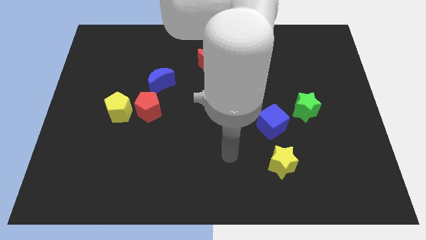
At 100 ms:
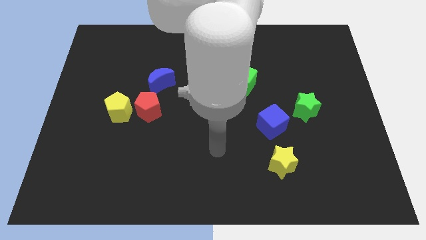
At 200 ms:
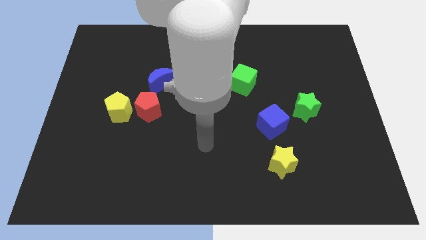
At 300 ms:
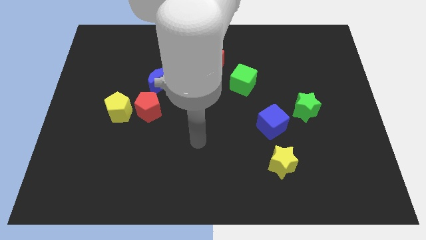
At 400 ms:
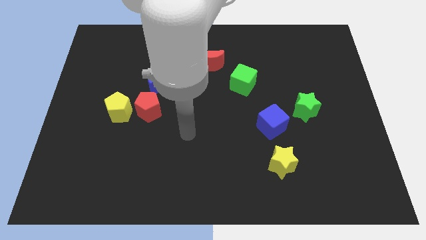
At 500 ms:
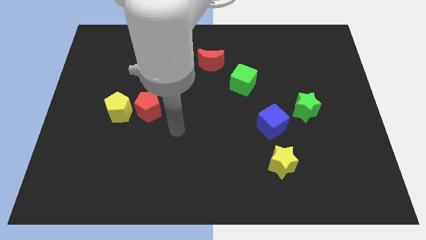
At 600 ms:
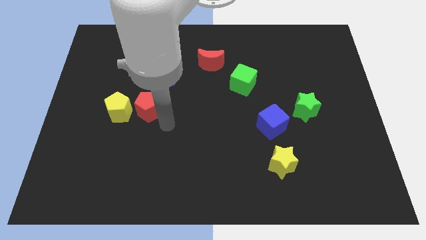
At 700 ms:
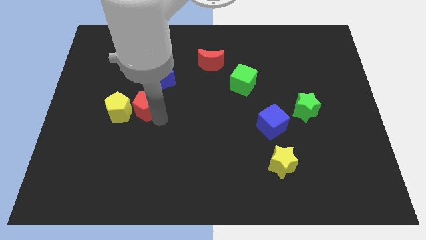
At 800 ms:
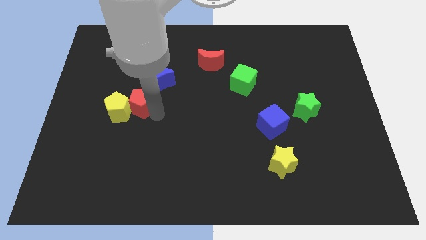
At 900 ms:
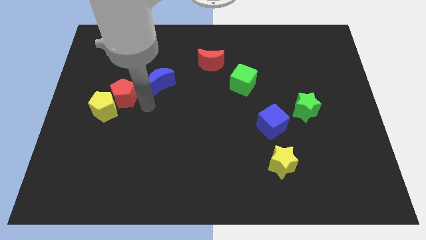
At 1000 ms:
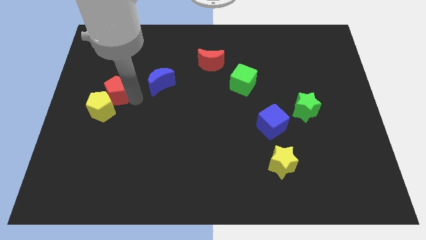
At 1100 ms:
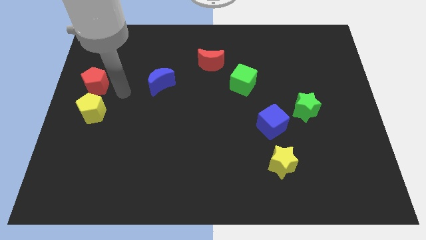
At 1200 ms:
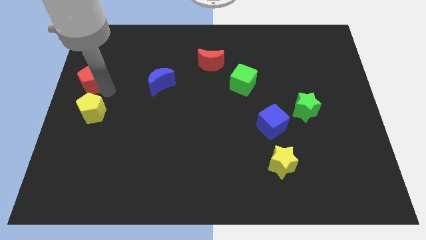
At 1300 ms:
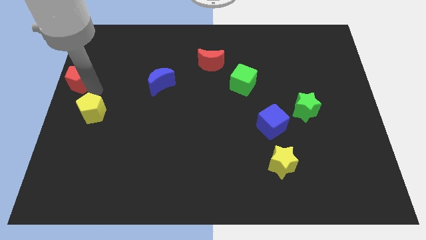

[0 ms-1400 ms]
separate the yellow pentagon from the red pentagon

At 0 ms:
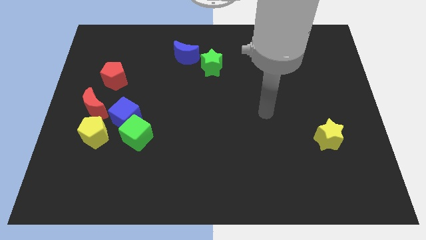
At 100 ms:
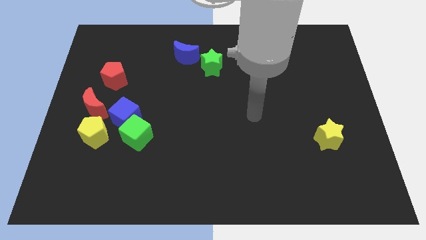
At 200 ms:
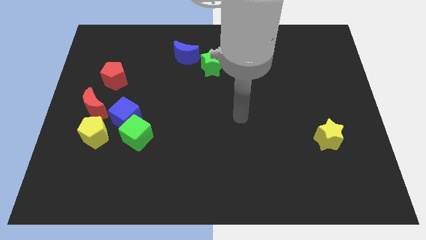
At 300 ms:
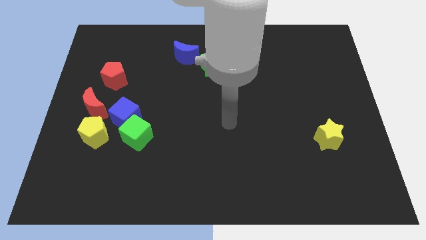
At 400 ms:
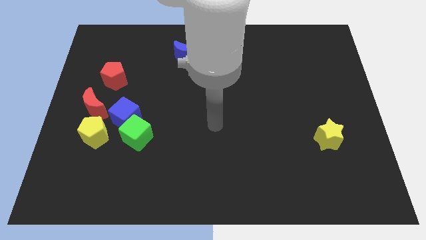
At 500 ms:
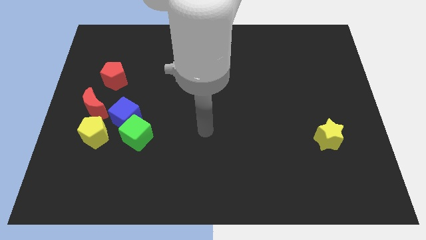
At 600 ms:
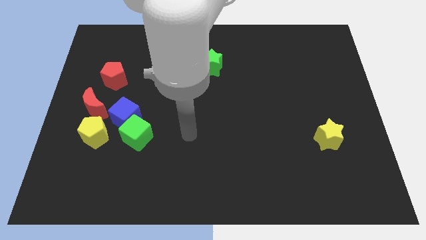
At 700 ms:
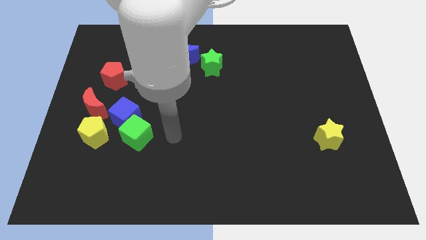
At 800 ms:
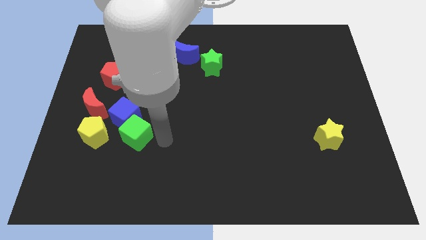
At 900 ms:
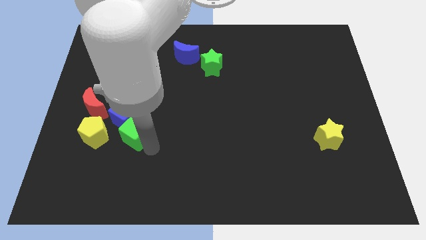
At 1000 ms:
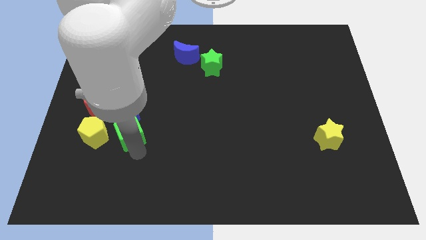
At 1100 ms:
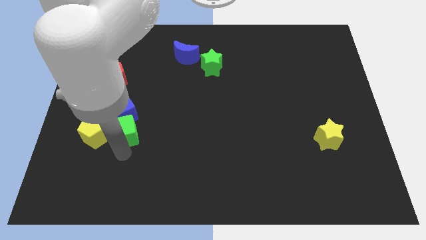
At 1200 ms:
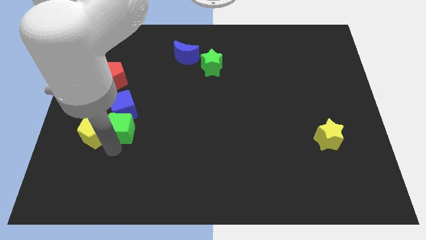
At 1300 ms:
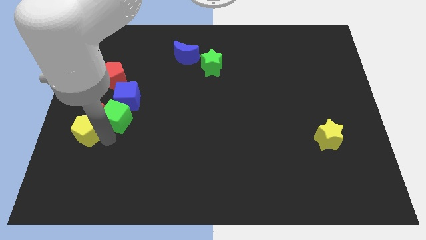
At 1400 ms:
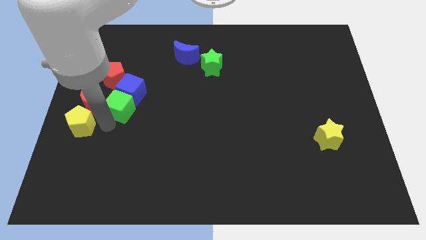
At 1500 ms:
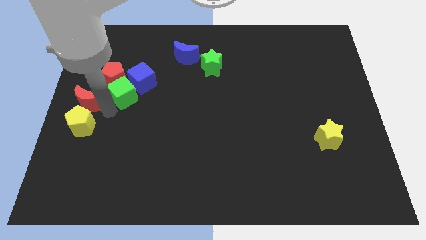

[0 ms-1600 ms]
separate the blue cube from the clump

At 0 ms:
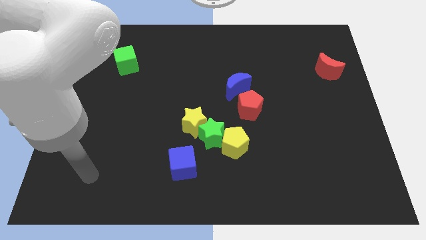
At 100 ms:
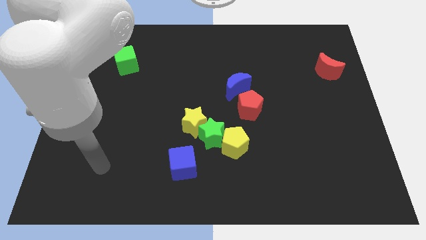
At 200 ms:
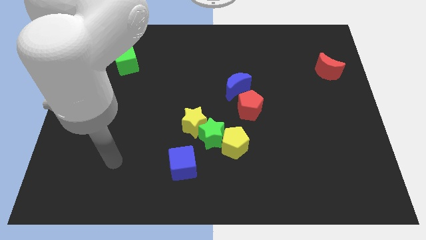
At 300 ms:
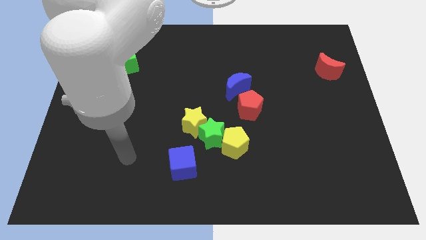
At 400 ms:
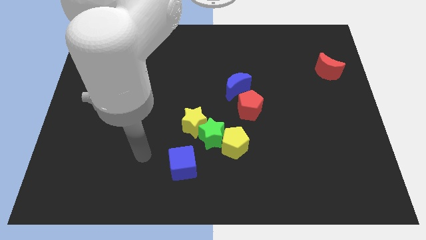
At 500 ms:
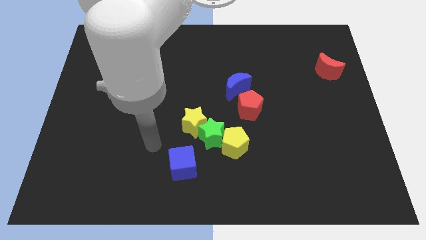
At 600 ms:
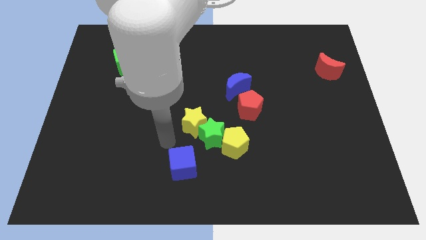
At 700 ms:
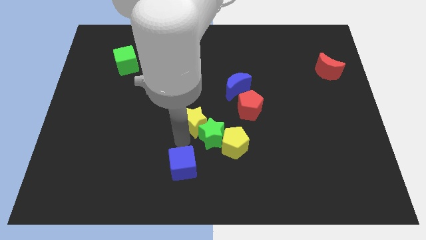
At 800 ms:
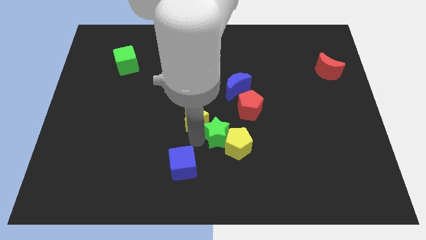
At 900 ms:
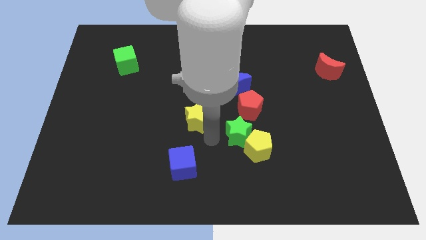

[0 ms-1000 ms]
move the yellow star away from the green star

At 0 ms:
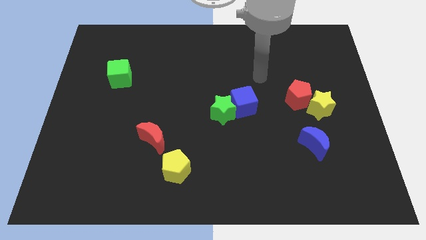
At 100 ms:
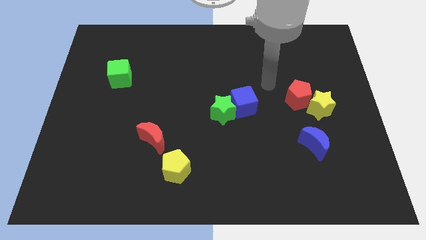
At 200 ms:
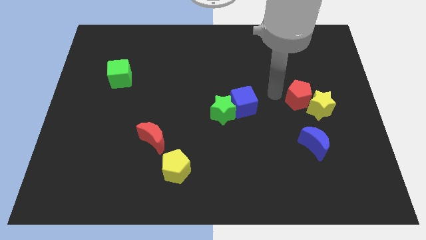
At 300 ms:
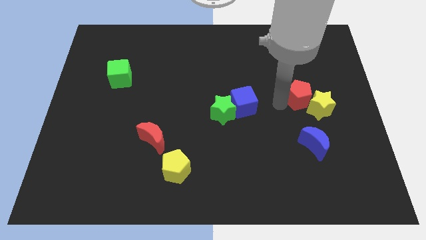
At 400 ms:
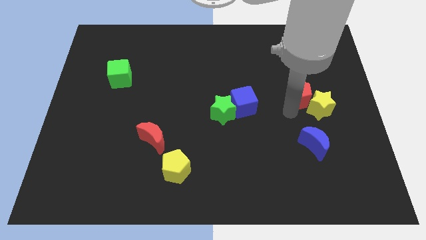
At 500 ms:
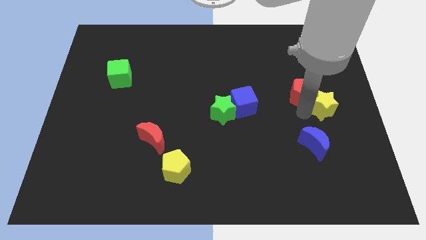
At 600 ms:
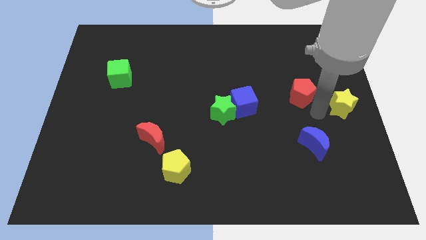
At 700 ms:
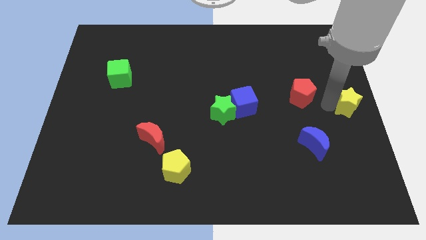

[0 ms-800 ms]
pull the red pentagon apart from the yellow star

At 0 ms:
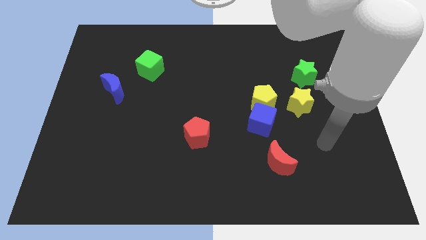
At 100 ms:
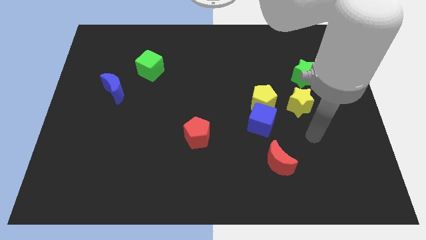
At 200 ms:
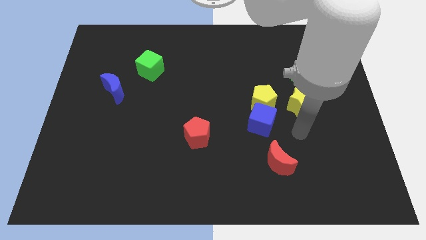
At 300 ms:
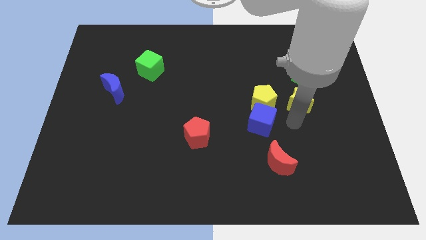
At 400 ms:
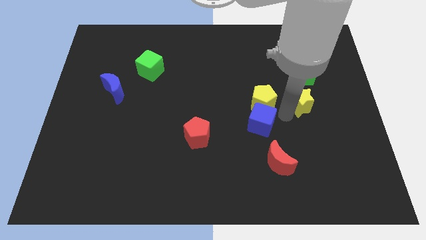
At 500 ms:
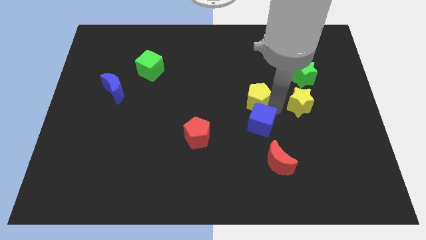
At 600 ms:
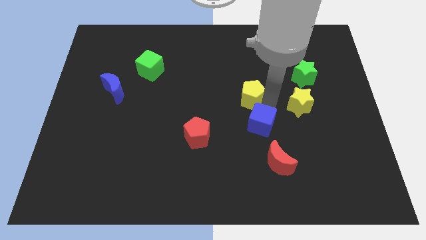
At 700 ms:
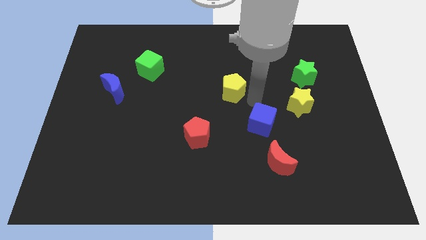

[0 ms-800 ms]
separate the blue cube from the yellow pentagon

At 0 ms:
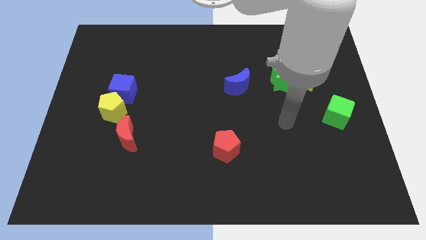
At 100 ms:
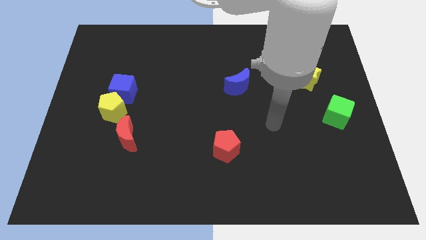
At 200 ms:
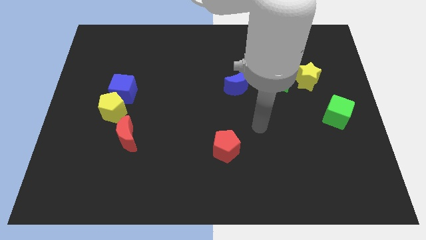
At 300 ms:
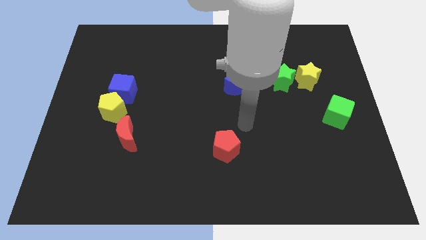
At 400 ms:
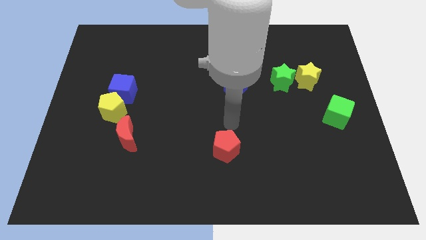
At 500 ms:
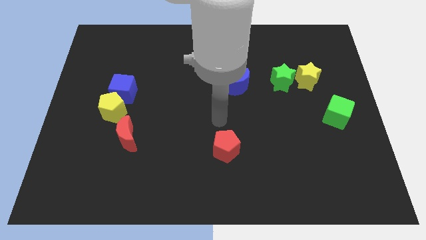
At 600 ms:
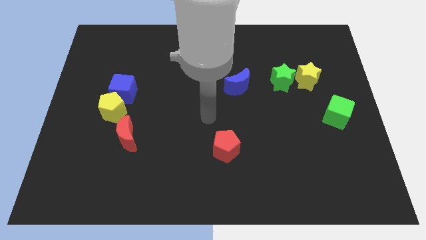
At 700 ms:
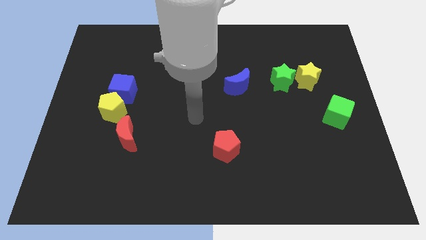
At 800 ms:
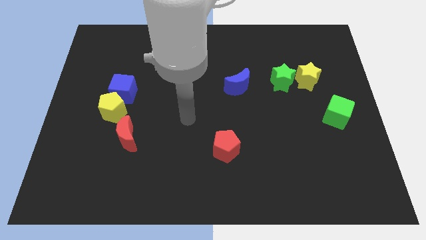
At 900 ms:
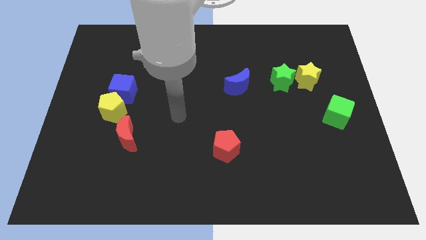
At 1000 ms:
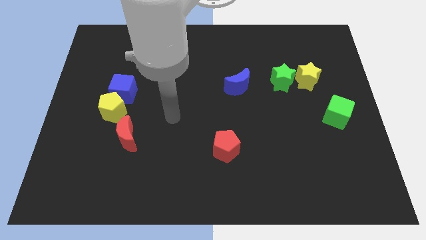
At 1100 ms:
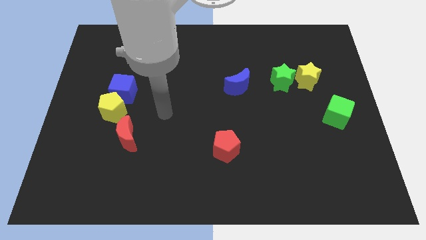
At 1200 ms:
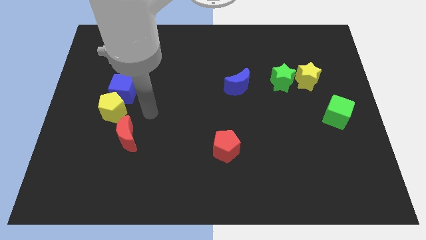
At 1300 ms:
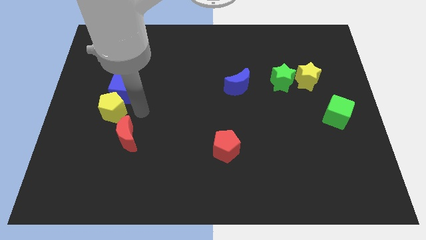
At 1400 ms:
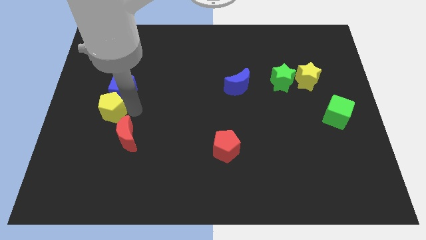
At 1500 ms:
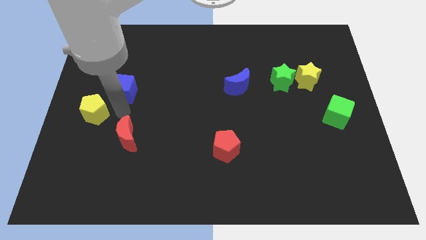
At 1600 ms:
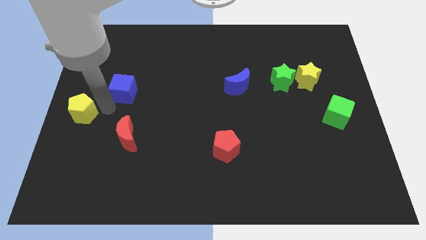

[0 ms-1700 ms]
pull the blue cube apart from the yellow pentagon

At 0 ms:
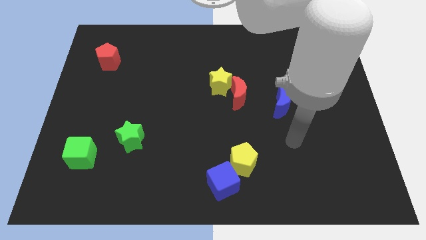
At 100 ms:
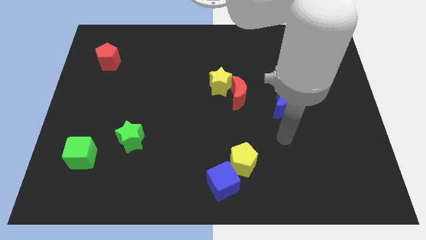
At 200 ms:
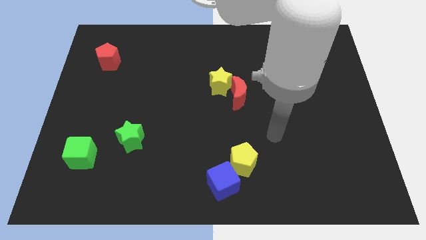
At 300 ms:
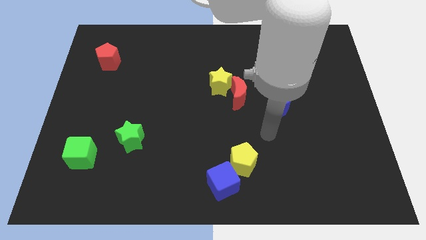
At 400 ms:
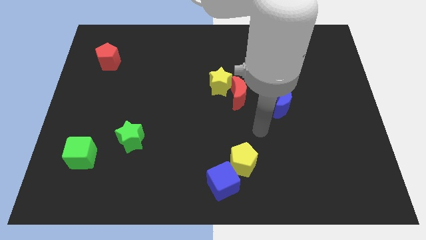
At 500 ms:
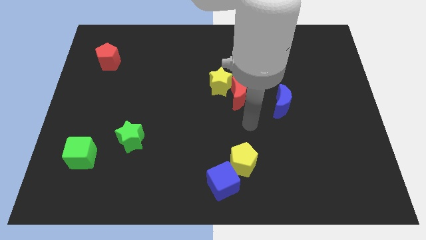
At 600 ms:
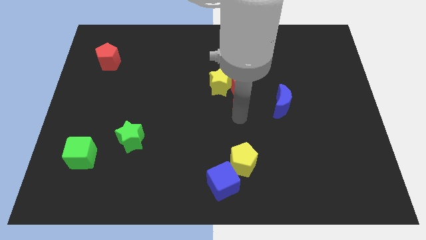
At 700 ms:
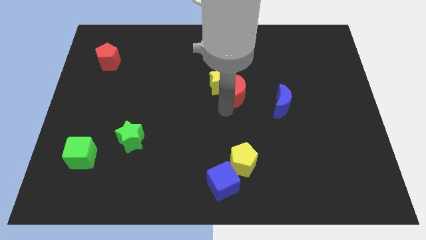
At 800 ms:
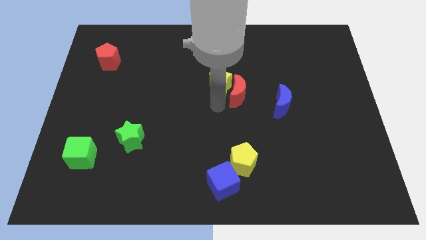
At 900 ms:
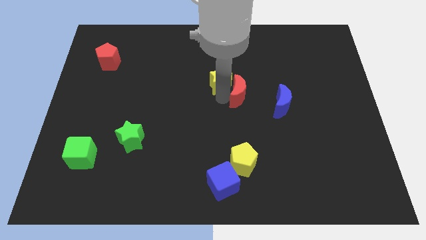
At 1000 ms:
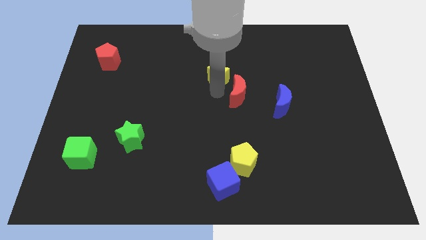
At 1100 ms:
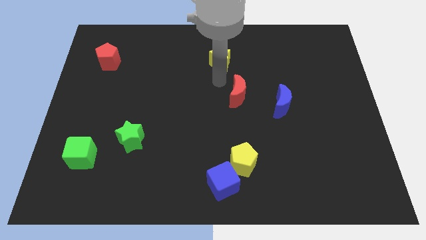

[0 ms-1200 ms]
separate the red moon from the yellow star

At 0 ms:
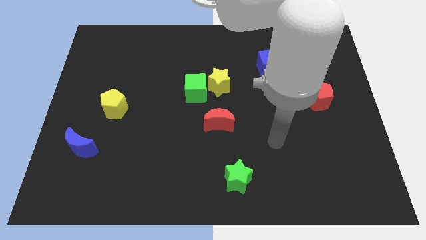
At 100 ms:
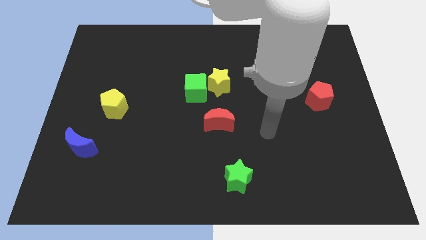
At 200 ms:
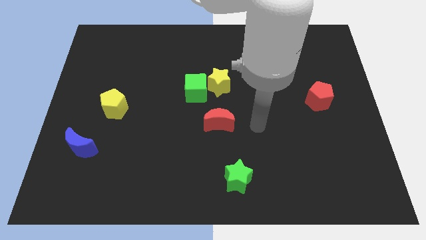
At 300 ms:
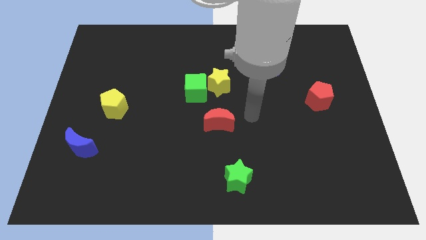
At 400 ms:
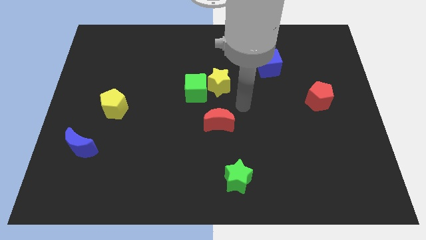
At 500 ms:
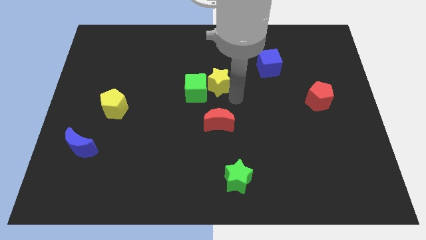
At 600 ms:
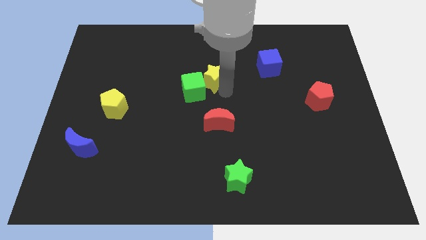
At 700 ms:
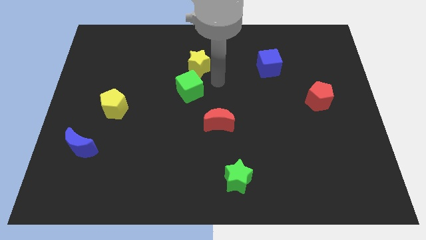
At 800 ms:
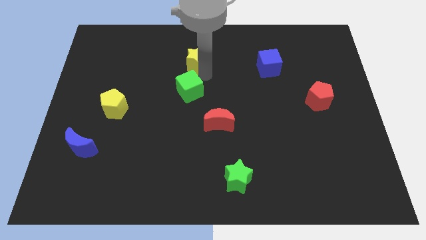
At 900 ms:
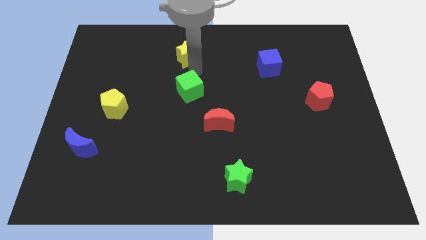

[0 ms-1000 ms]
move the green cube away from the yellow star
